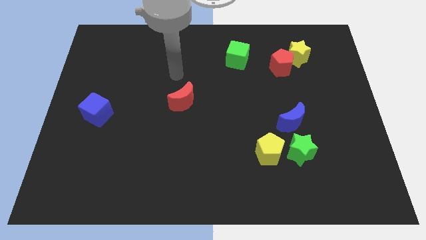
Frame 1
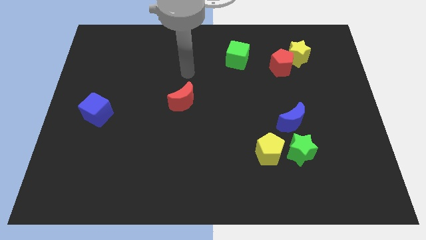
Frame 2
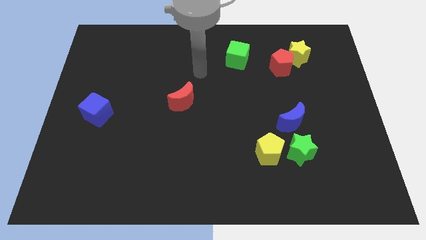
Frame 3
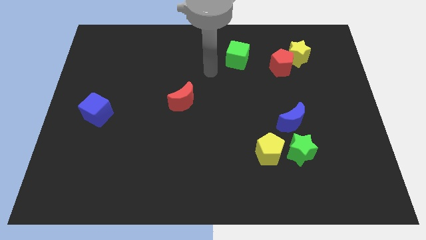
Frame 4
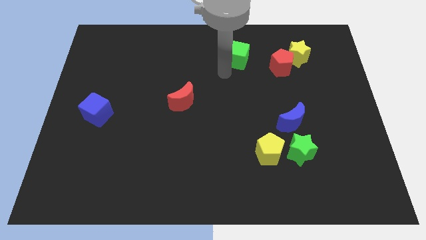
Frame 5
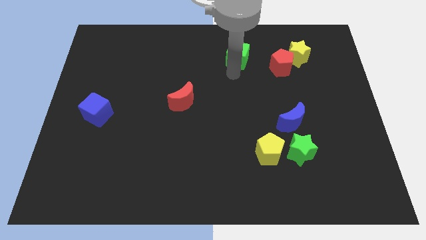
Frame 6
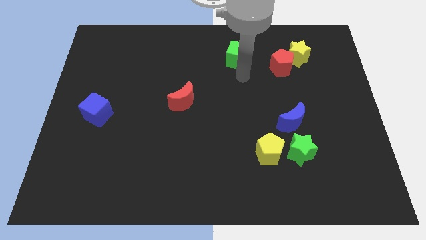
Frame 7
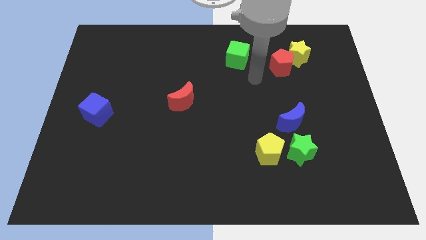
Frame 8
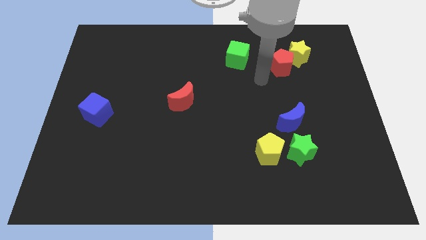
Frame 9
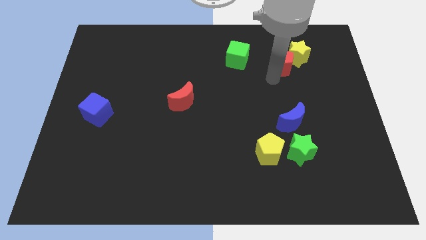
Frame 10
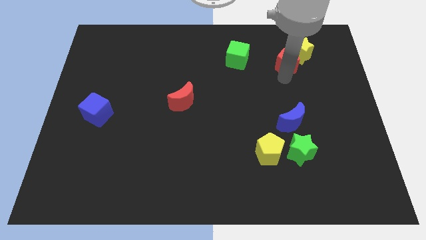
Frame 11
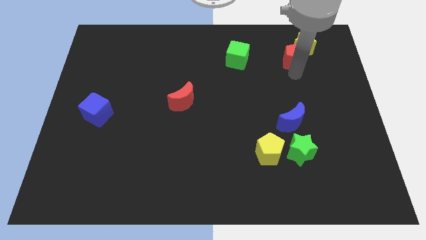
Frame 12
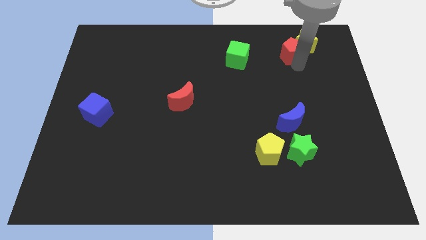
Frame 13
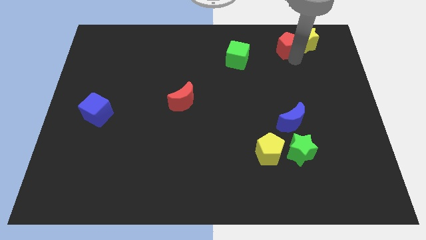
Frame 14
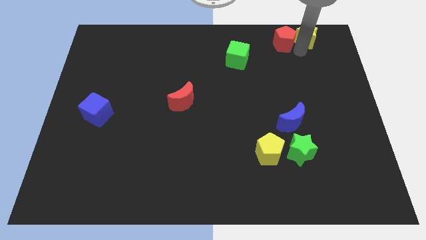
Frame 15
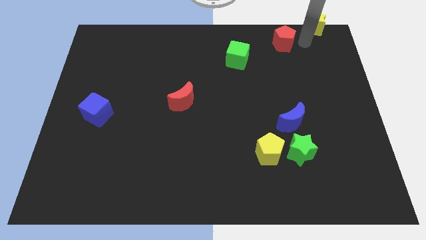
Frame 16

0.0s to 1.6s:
move the red pentagon away from the yellow star

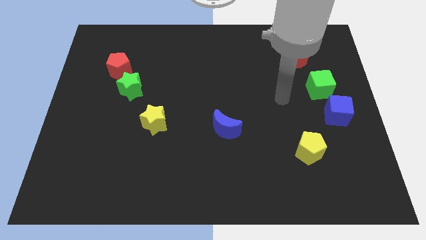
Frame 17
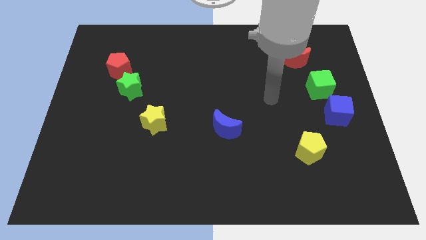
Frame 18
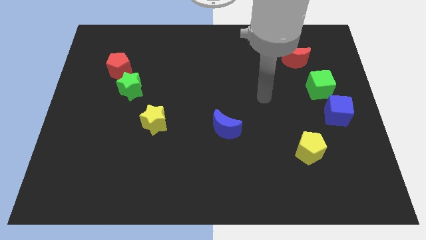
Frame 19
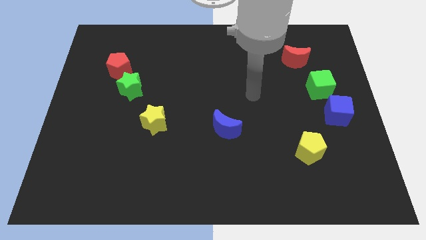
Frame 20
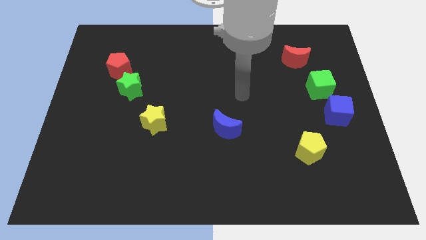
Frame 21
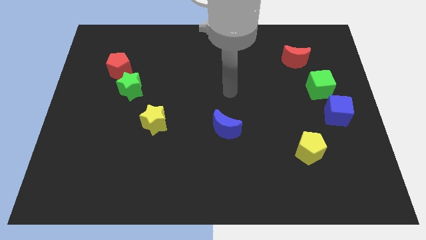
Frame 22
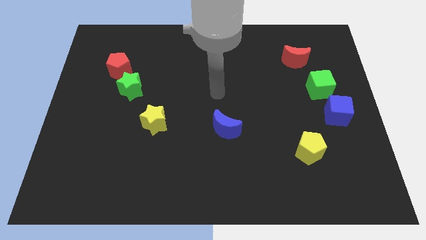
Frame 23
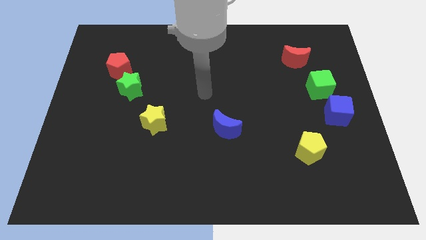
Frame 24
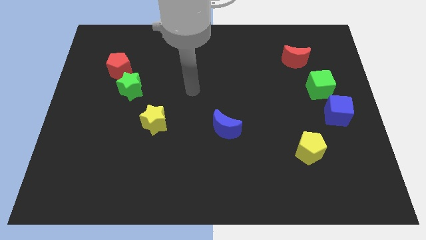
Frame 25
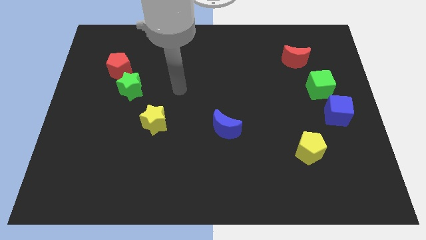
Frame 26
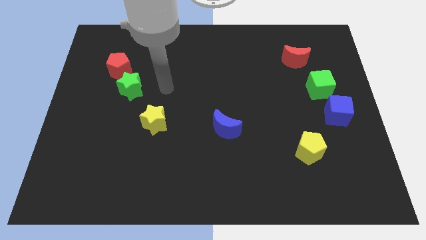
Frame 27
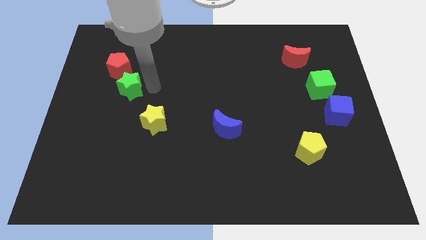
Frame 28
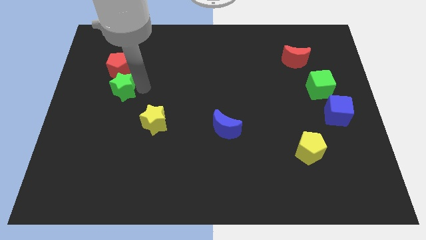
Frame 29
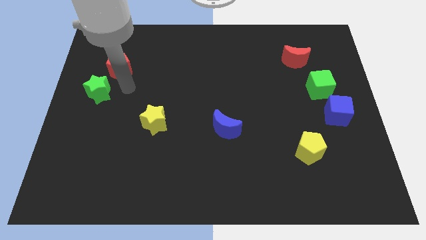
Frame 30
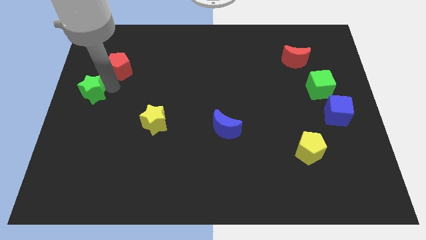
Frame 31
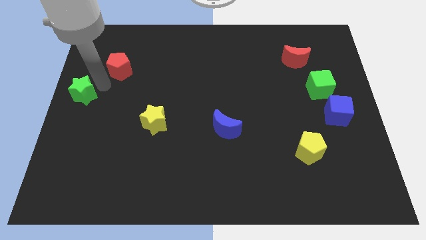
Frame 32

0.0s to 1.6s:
pull the red pentagon apart from the green star

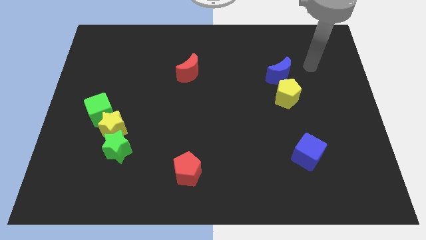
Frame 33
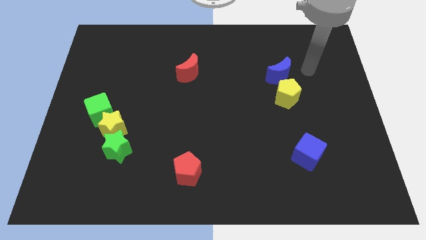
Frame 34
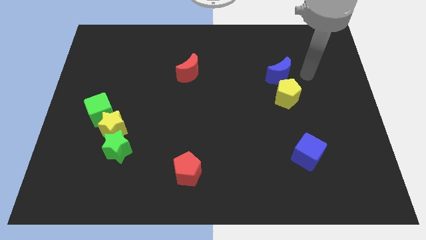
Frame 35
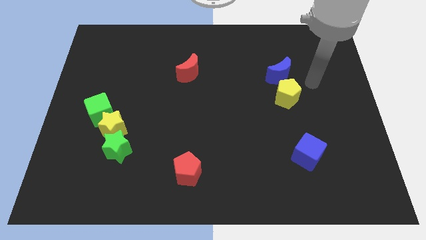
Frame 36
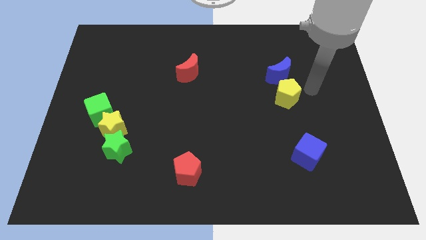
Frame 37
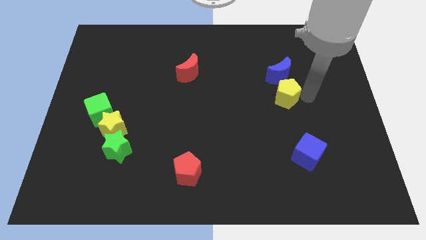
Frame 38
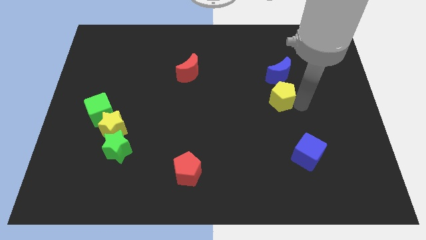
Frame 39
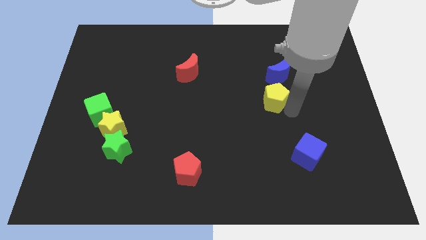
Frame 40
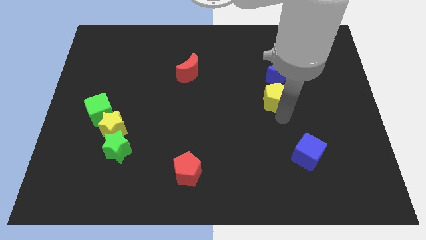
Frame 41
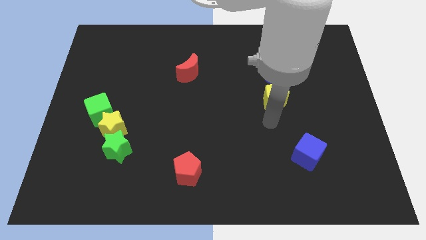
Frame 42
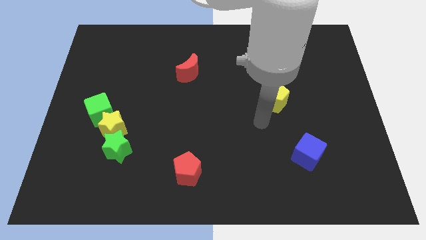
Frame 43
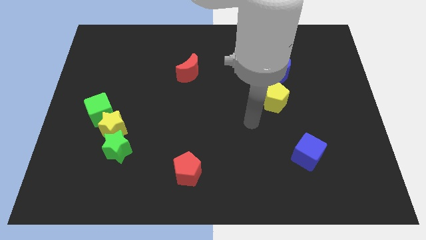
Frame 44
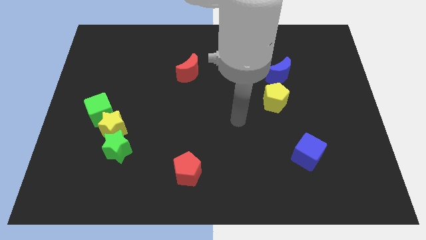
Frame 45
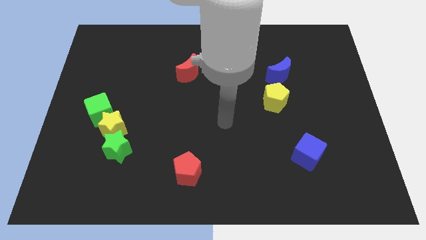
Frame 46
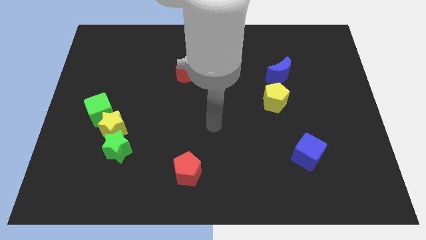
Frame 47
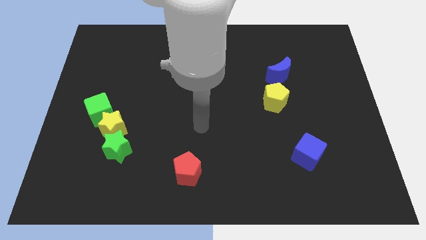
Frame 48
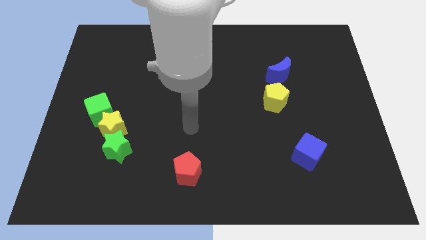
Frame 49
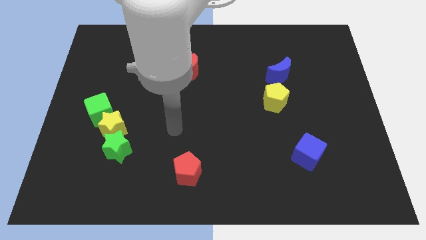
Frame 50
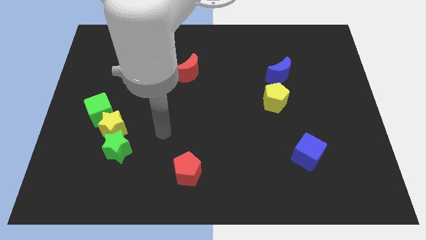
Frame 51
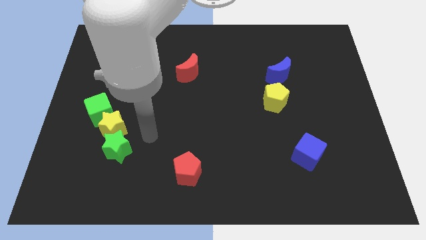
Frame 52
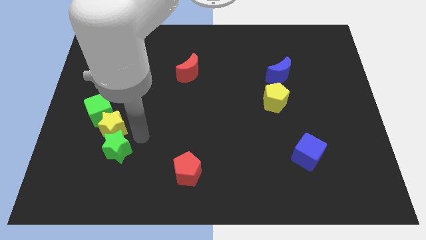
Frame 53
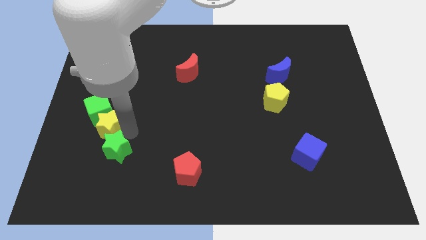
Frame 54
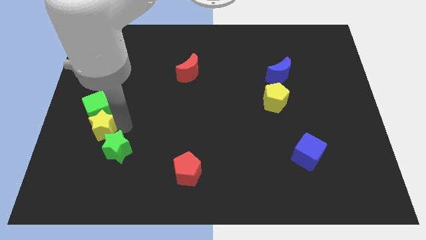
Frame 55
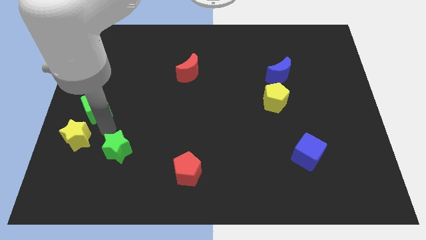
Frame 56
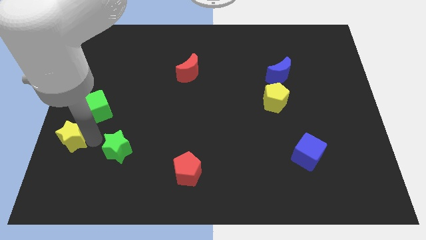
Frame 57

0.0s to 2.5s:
separate the green star from the yellow star

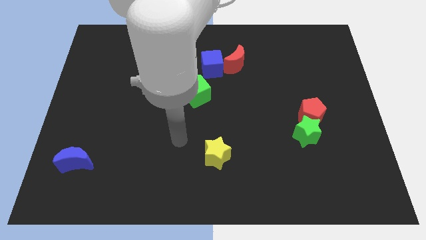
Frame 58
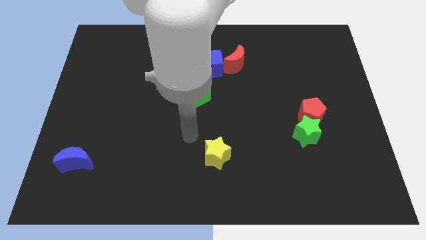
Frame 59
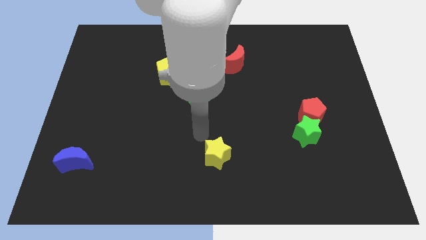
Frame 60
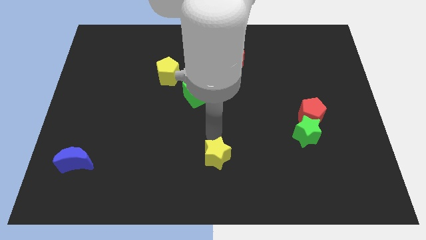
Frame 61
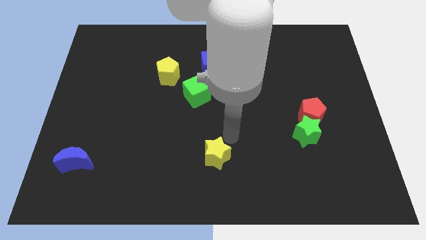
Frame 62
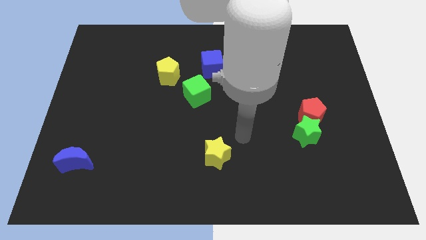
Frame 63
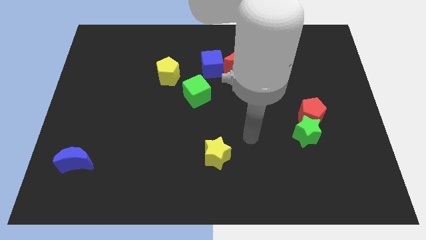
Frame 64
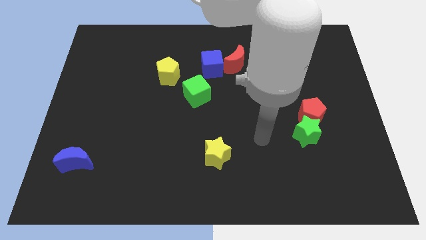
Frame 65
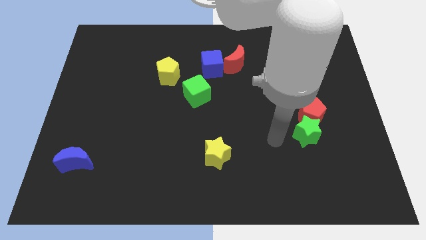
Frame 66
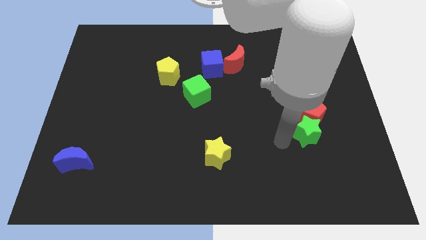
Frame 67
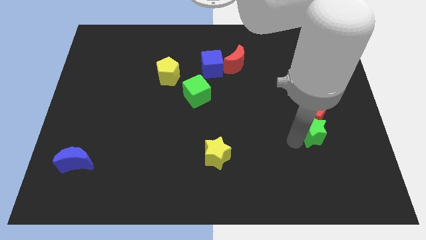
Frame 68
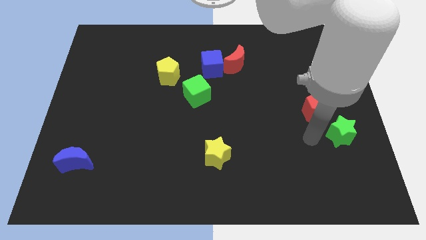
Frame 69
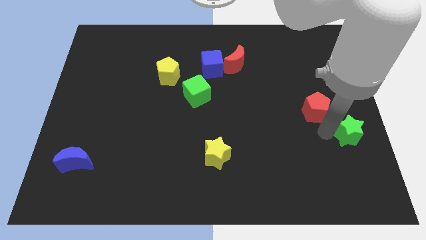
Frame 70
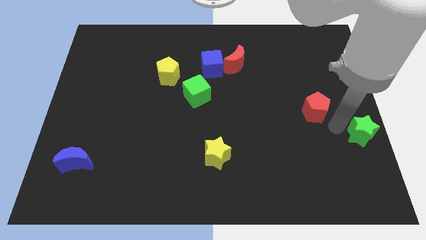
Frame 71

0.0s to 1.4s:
separate the red pentagon from the green star

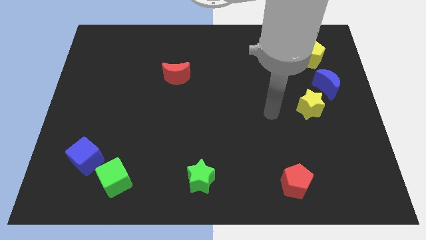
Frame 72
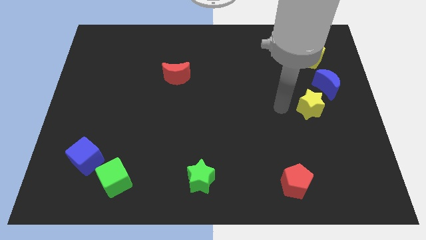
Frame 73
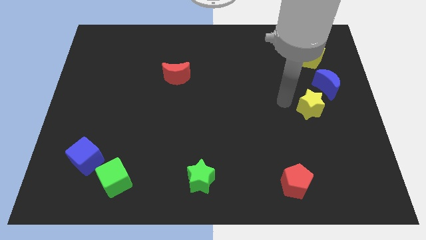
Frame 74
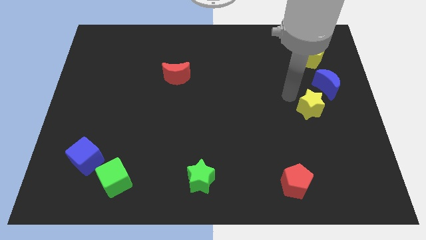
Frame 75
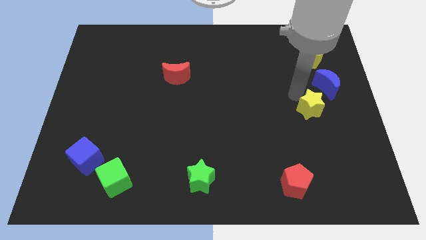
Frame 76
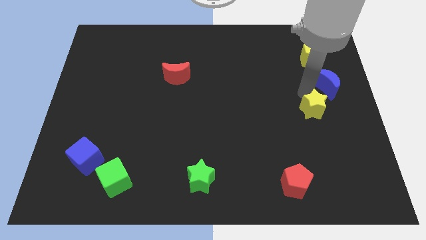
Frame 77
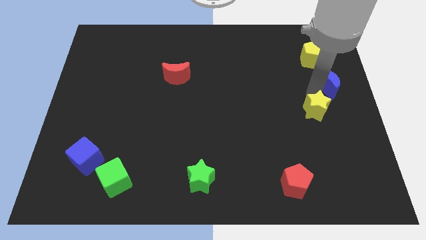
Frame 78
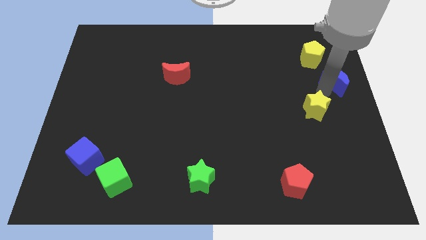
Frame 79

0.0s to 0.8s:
separate the yellow star from the blue moon

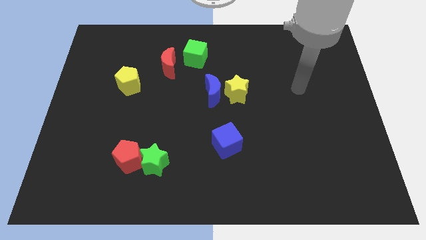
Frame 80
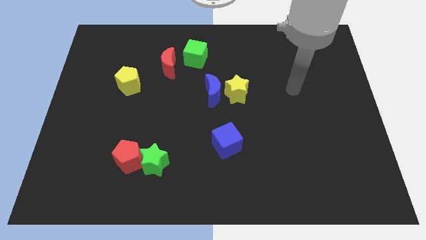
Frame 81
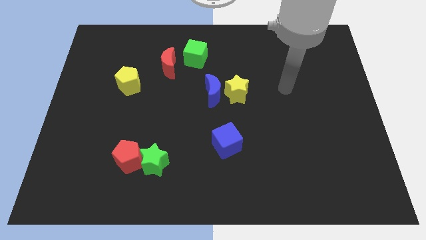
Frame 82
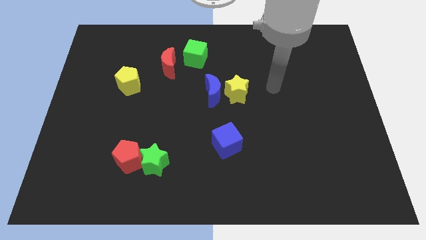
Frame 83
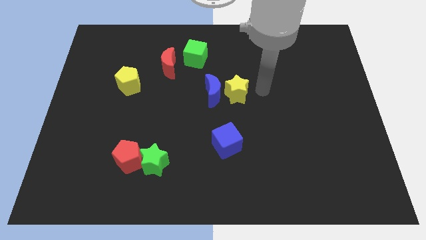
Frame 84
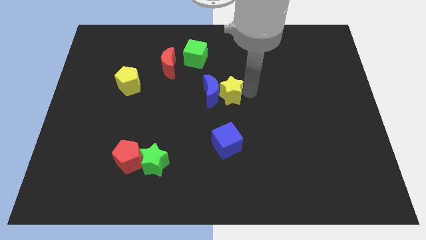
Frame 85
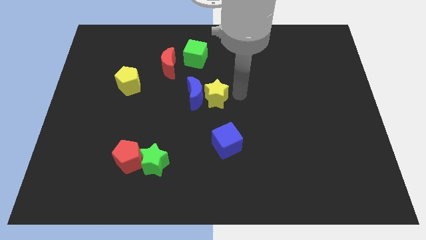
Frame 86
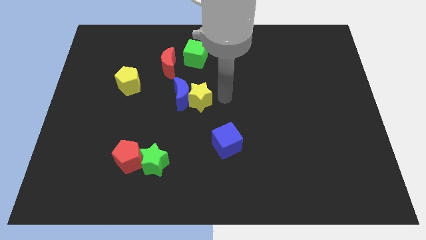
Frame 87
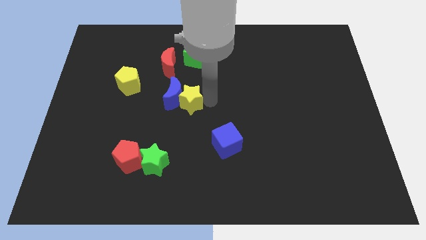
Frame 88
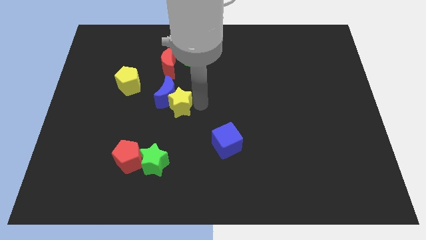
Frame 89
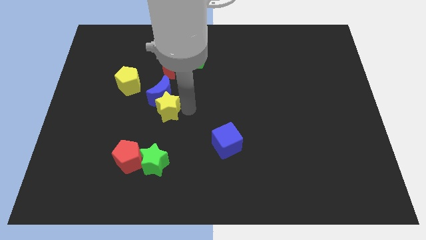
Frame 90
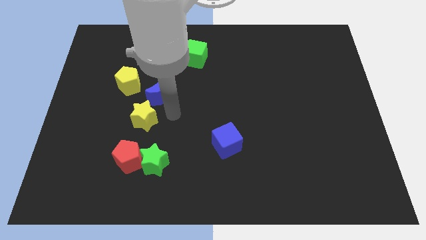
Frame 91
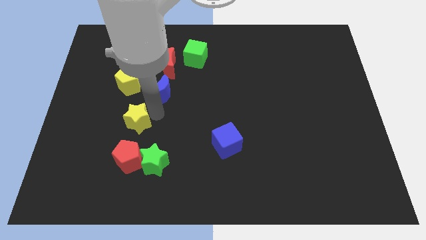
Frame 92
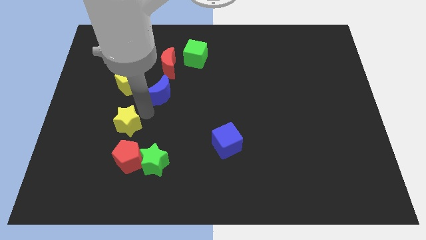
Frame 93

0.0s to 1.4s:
pull the blue moon apart from the yellow star

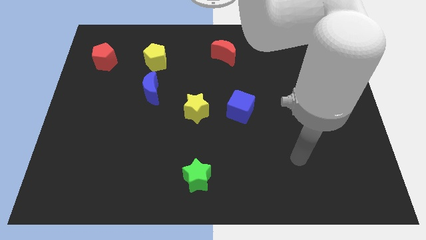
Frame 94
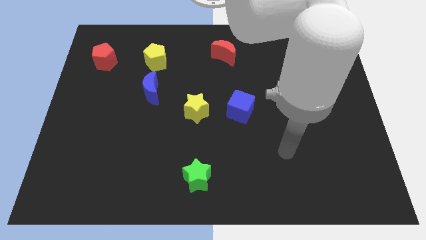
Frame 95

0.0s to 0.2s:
pull the blue cube apart from the yellow star
